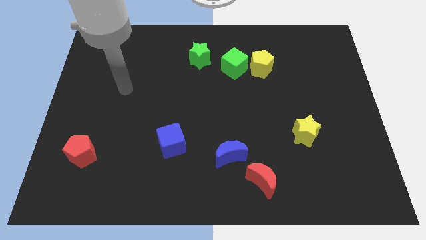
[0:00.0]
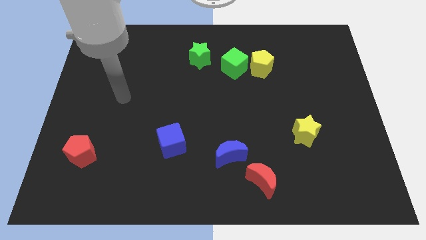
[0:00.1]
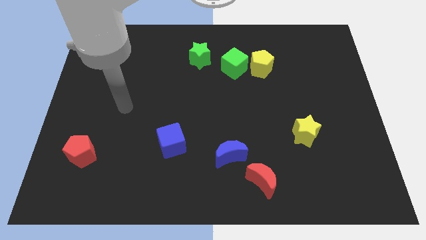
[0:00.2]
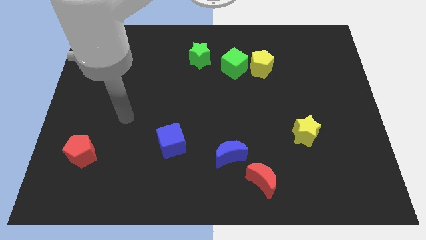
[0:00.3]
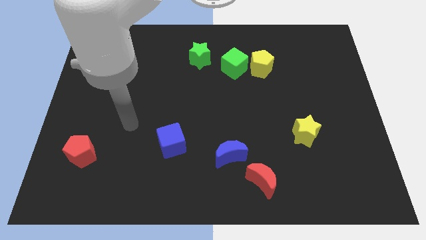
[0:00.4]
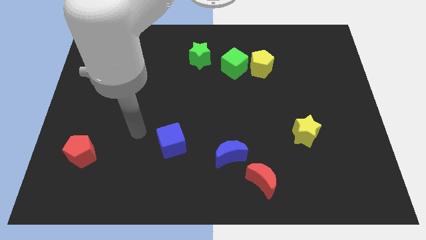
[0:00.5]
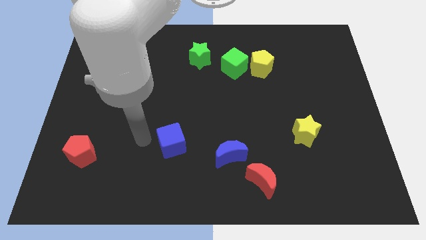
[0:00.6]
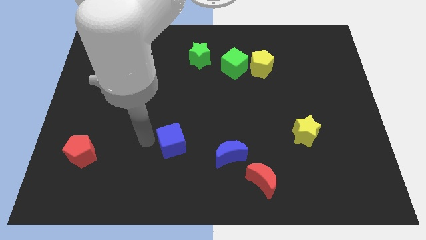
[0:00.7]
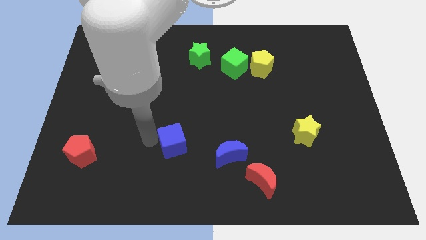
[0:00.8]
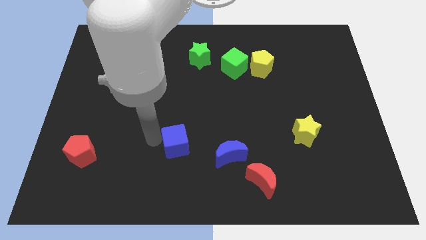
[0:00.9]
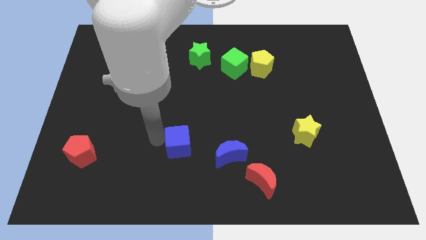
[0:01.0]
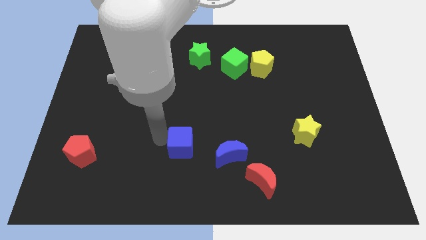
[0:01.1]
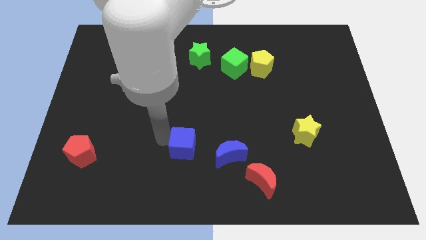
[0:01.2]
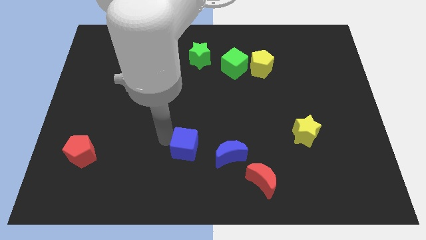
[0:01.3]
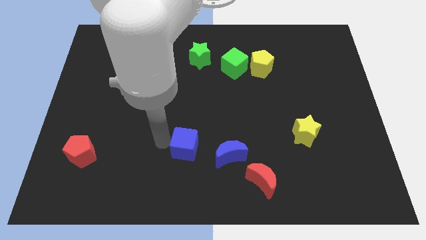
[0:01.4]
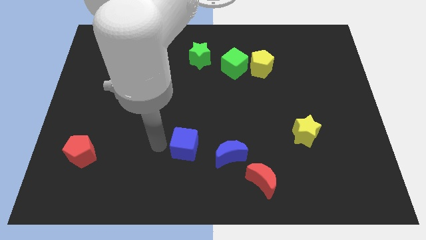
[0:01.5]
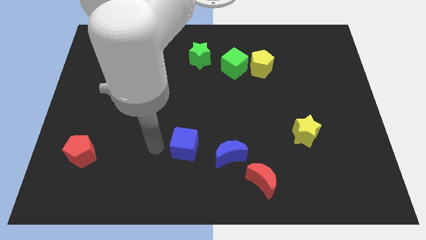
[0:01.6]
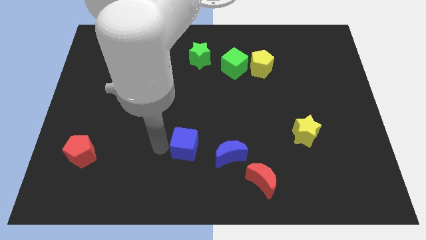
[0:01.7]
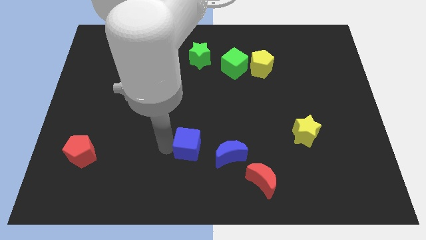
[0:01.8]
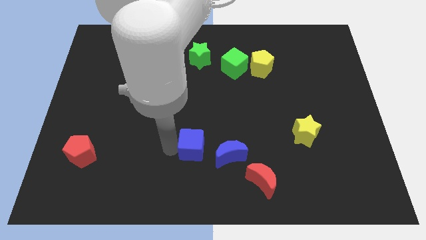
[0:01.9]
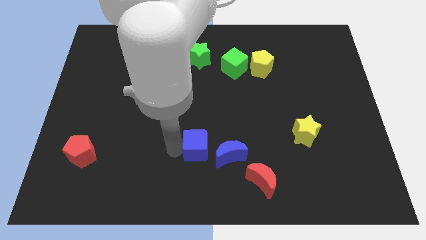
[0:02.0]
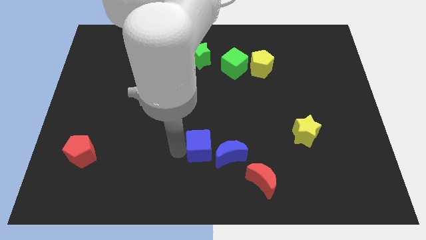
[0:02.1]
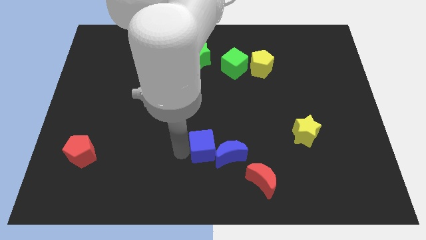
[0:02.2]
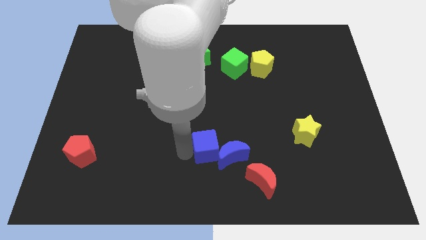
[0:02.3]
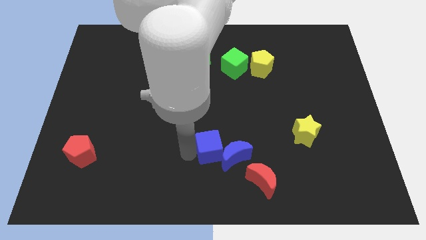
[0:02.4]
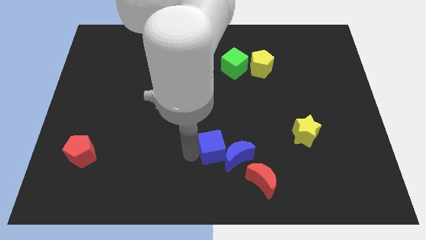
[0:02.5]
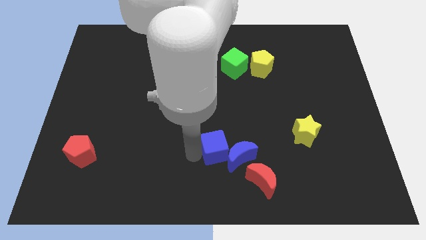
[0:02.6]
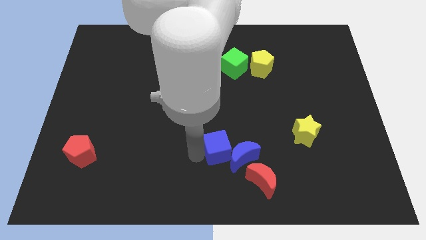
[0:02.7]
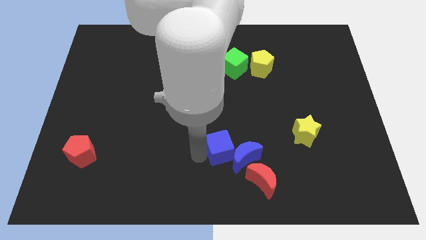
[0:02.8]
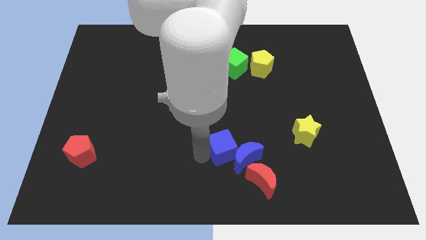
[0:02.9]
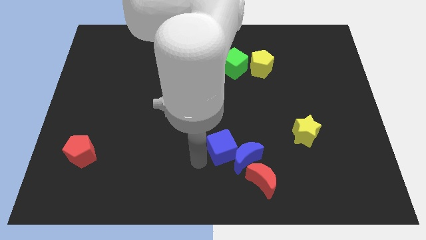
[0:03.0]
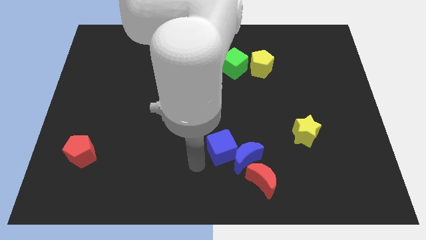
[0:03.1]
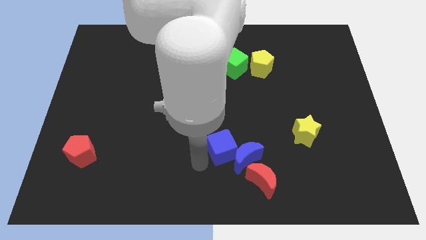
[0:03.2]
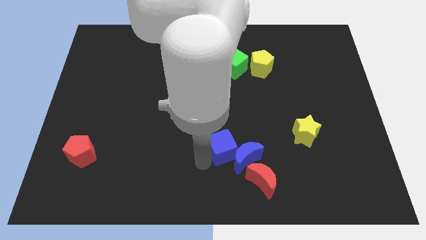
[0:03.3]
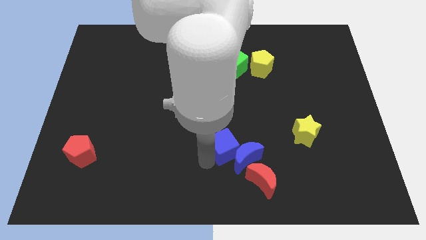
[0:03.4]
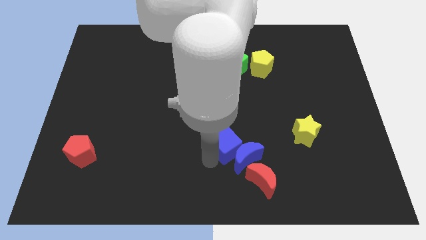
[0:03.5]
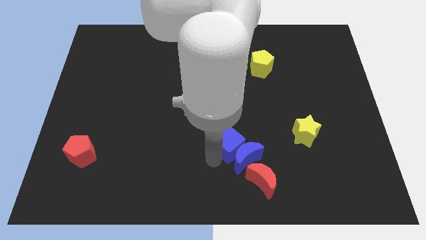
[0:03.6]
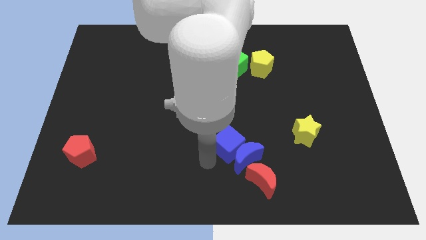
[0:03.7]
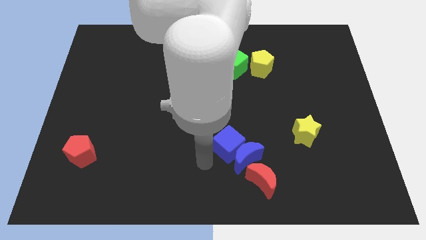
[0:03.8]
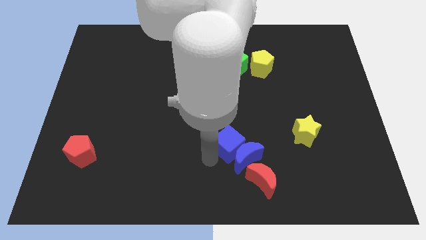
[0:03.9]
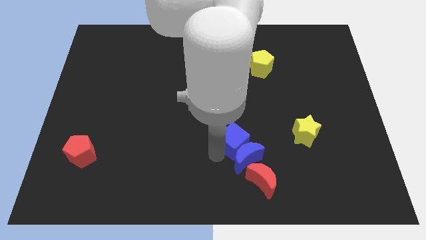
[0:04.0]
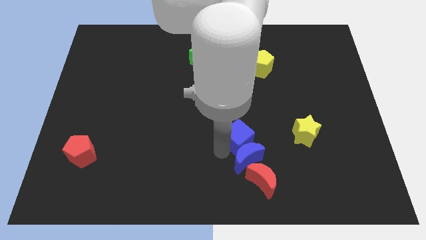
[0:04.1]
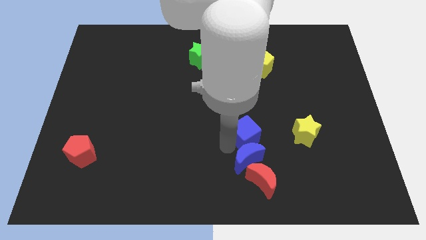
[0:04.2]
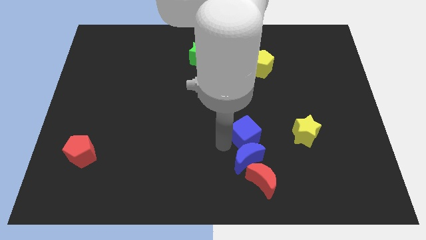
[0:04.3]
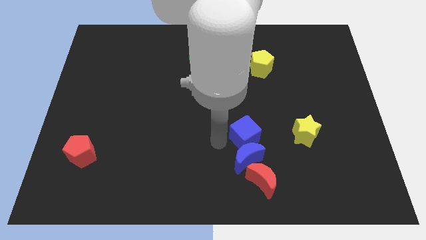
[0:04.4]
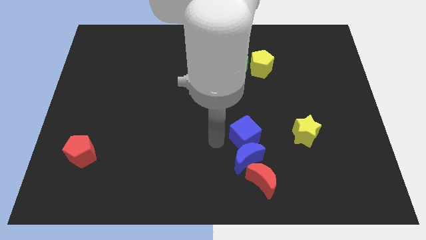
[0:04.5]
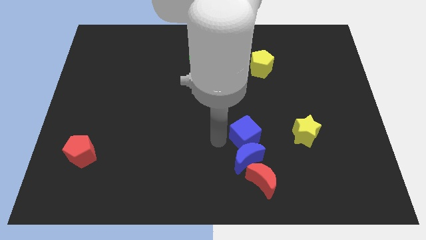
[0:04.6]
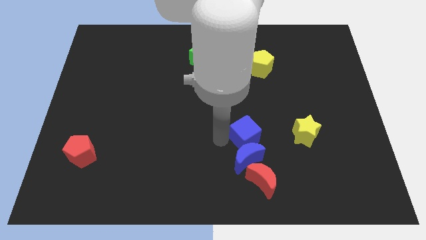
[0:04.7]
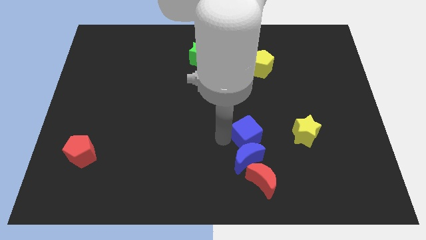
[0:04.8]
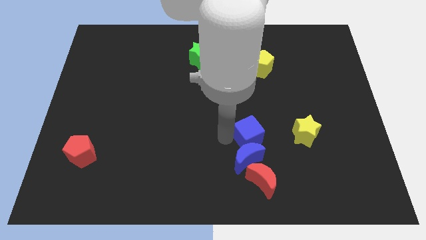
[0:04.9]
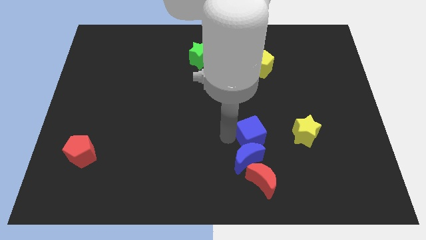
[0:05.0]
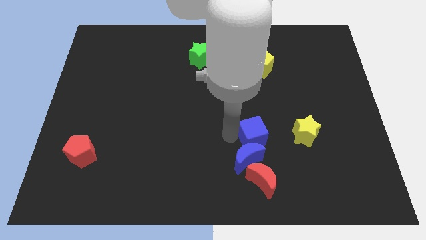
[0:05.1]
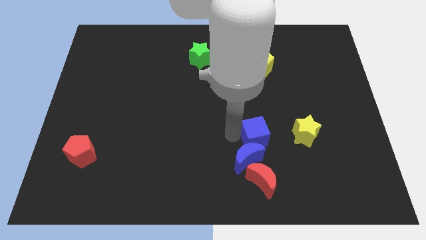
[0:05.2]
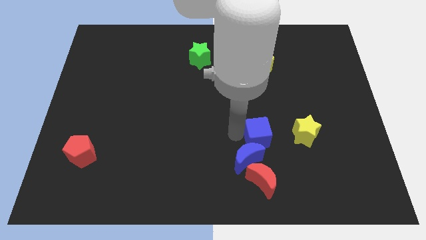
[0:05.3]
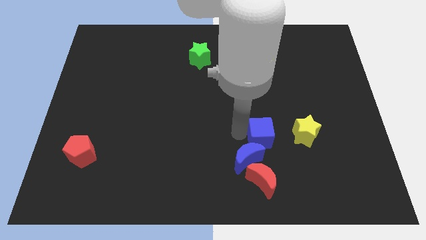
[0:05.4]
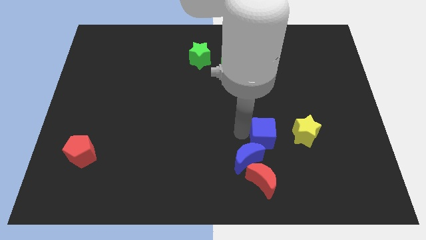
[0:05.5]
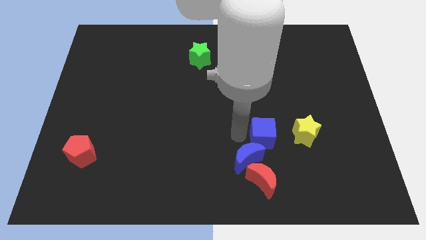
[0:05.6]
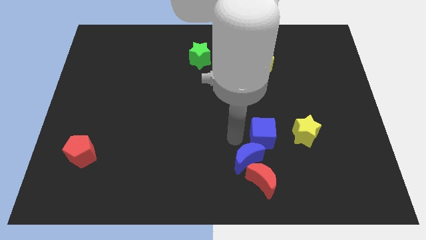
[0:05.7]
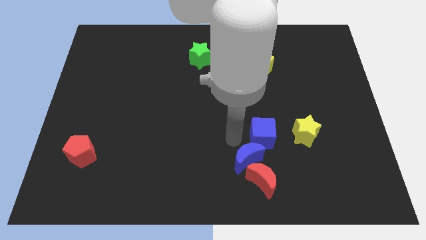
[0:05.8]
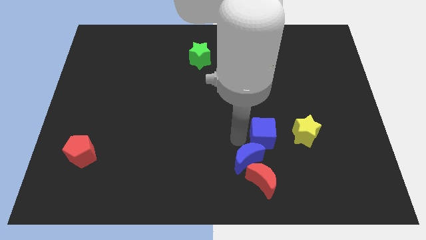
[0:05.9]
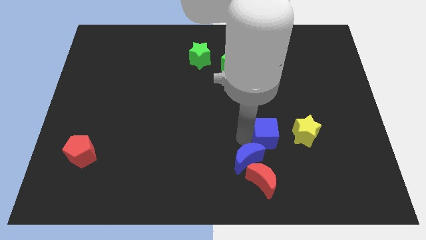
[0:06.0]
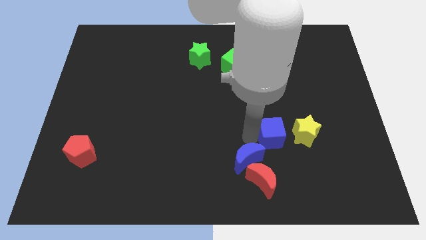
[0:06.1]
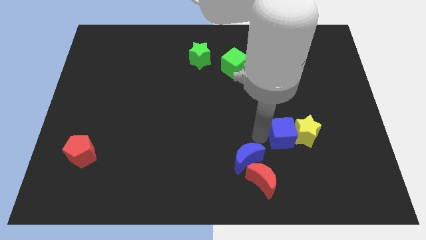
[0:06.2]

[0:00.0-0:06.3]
slide the blue cube next to the yellow star

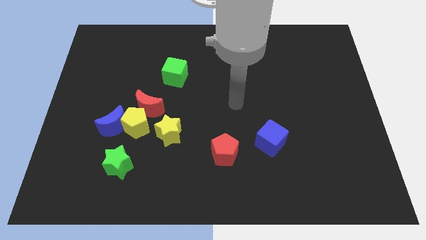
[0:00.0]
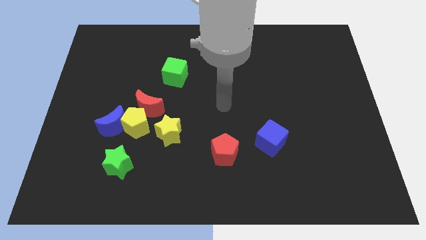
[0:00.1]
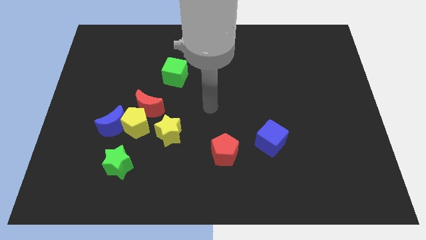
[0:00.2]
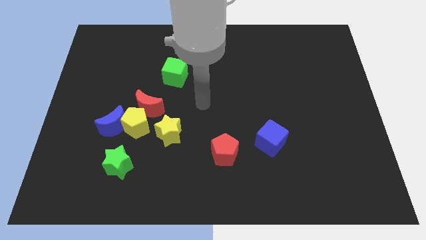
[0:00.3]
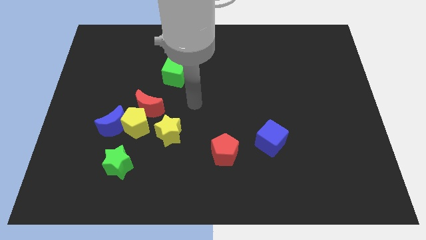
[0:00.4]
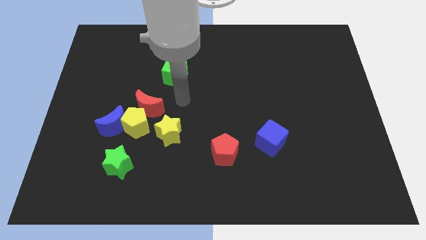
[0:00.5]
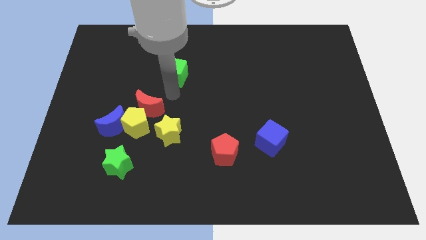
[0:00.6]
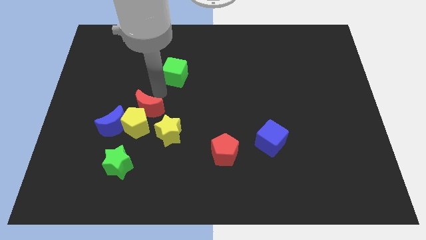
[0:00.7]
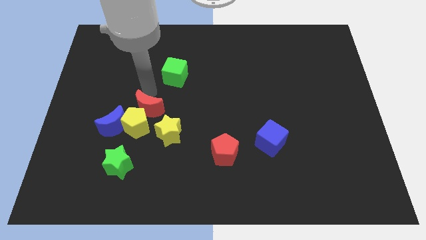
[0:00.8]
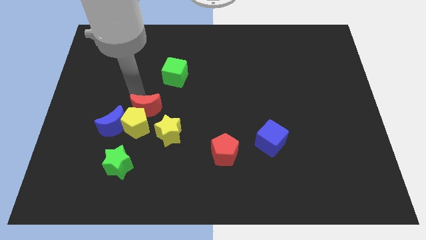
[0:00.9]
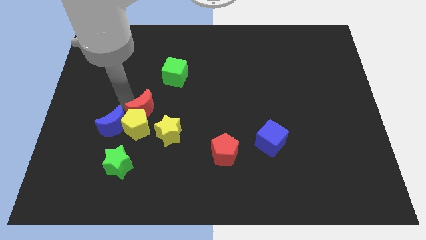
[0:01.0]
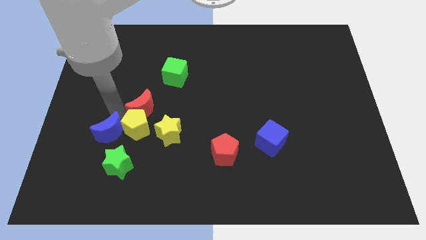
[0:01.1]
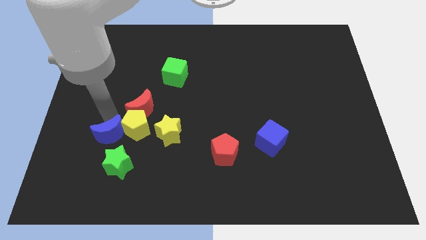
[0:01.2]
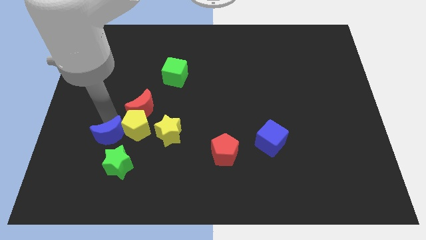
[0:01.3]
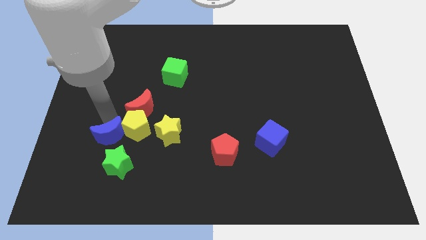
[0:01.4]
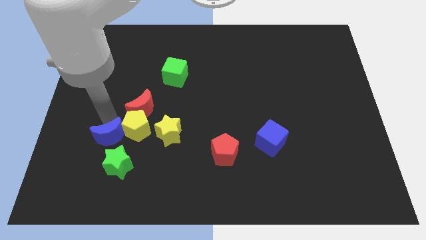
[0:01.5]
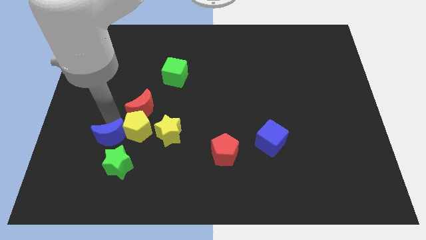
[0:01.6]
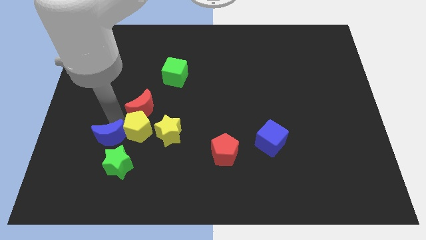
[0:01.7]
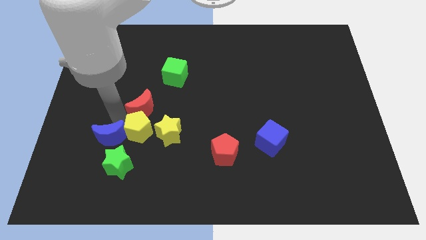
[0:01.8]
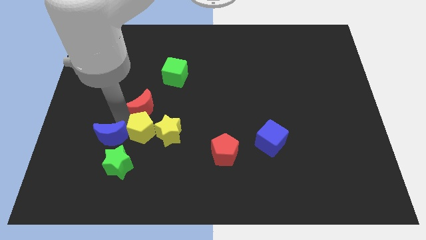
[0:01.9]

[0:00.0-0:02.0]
slide the yellow pentagon next to the yellow star
